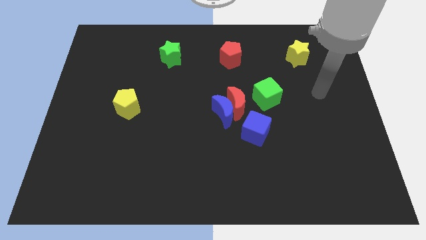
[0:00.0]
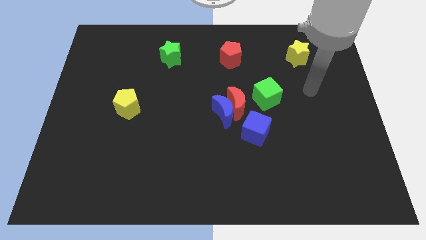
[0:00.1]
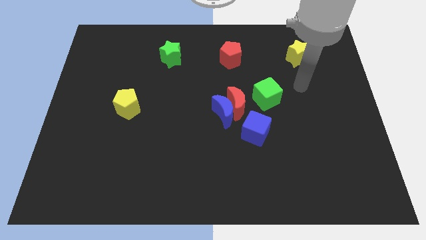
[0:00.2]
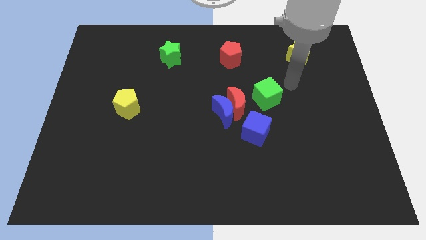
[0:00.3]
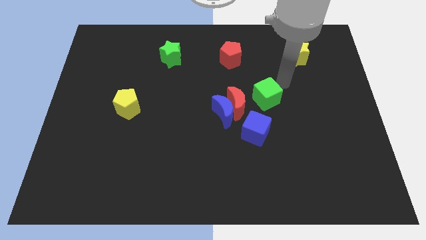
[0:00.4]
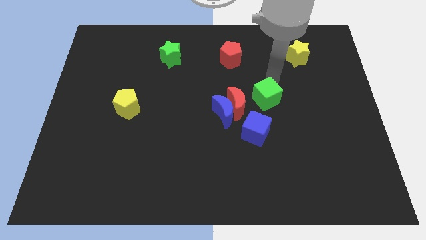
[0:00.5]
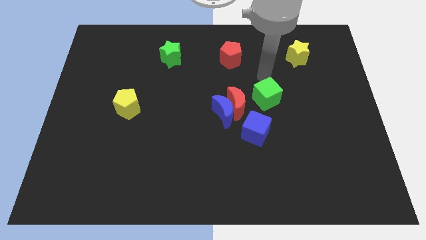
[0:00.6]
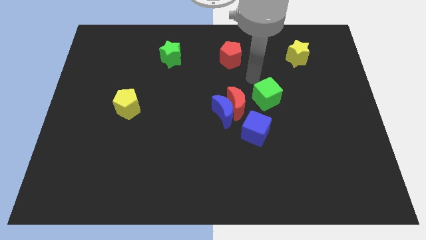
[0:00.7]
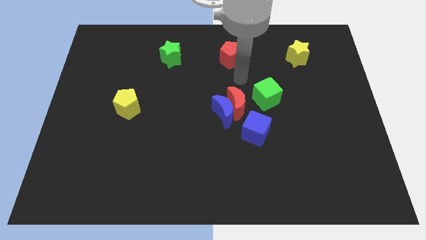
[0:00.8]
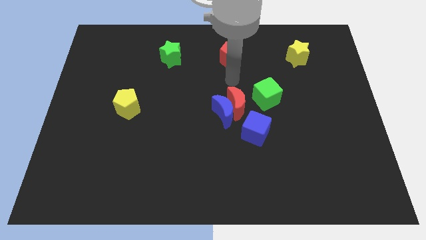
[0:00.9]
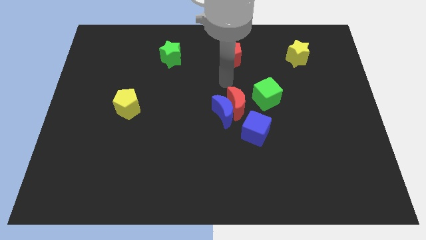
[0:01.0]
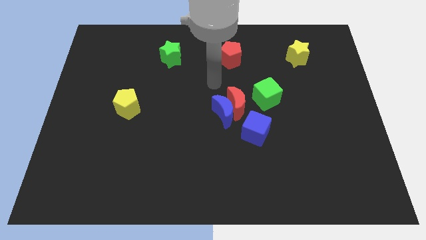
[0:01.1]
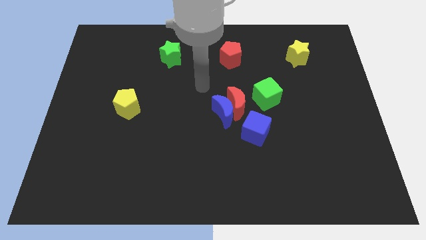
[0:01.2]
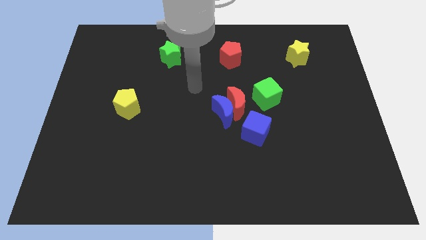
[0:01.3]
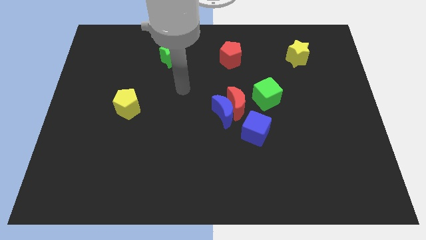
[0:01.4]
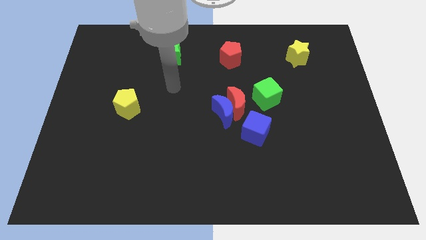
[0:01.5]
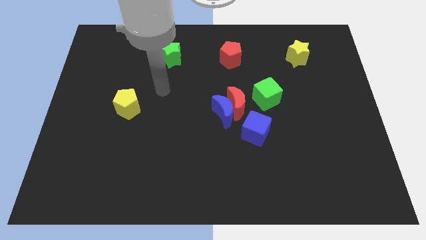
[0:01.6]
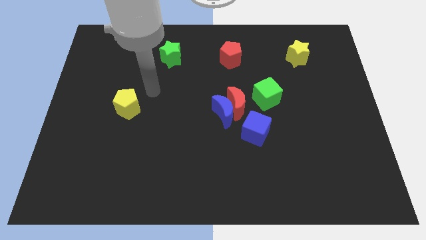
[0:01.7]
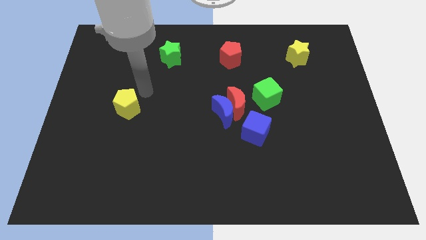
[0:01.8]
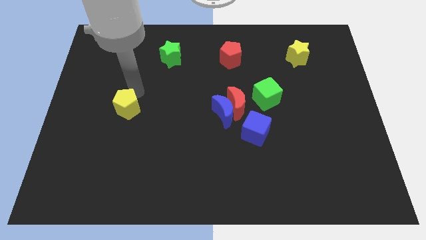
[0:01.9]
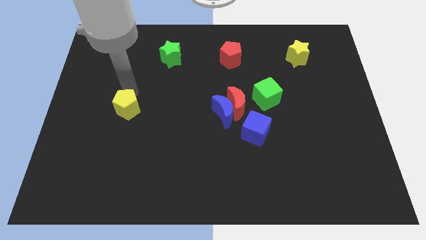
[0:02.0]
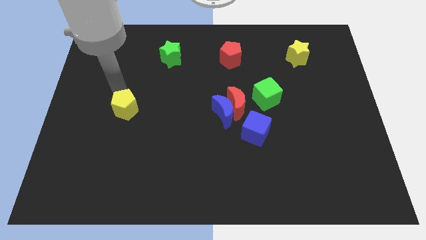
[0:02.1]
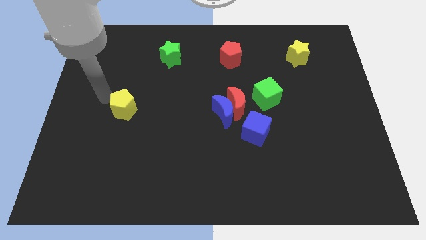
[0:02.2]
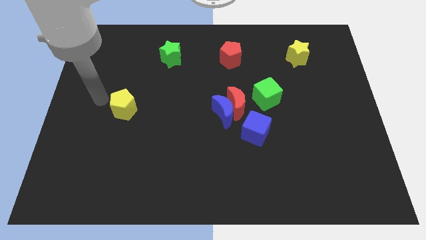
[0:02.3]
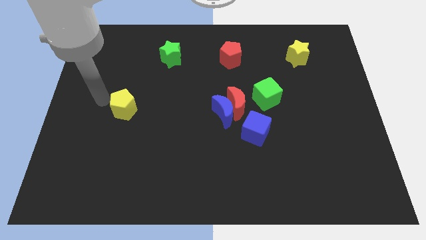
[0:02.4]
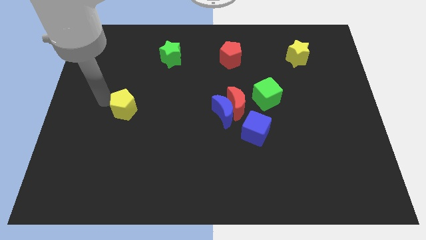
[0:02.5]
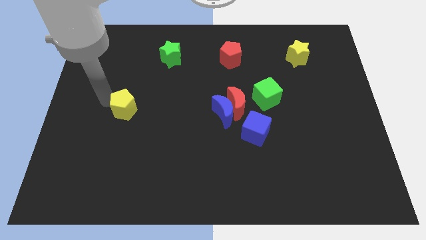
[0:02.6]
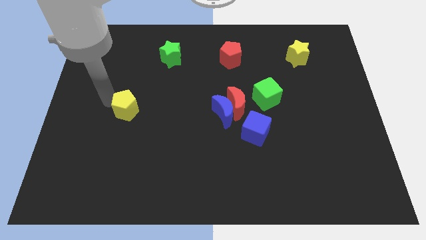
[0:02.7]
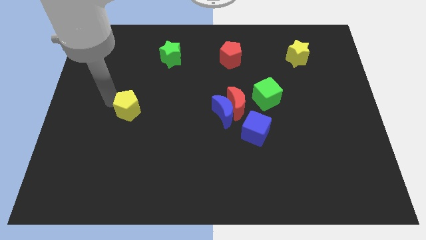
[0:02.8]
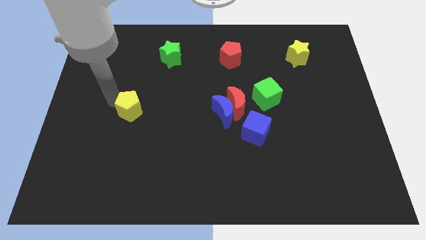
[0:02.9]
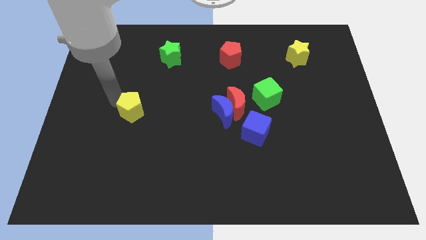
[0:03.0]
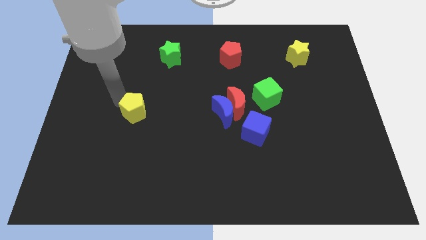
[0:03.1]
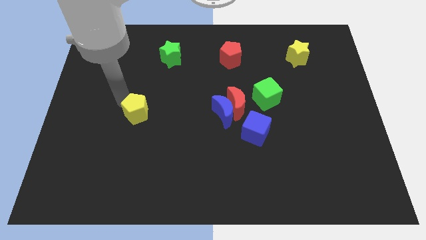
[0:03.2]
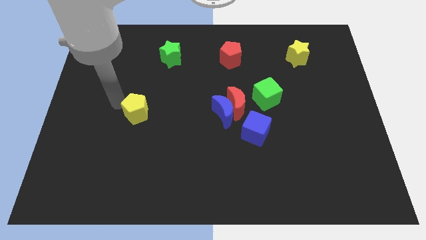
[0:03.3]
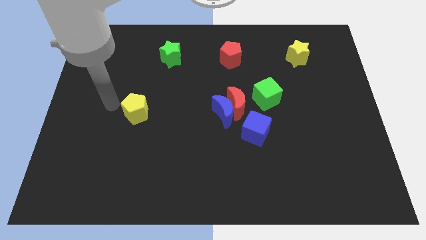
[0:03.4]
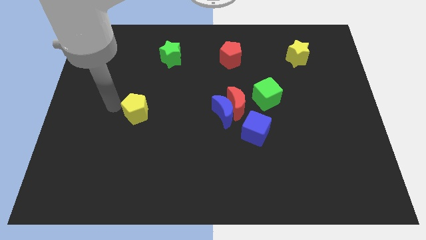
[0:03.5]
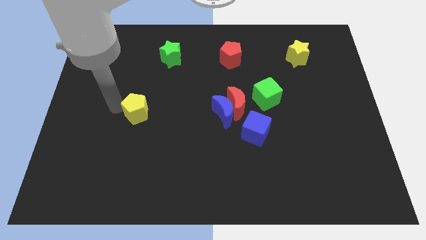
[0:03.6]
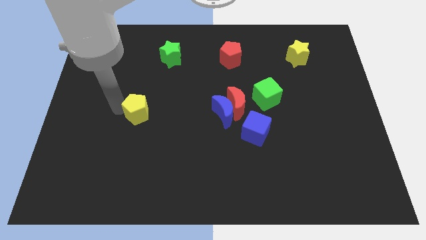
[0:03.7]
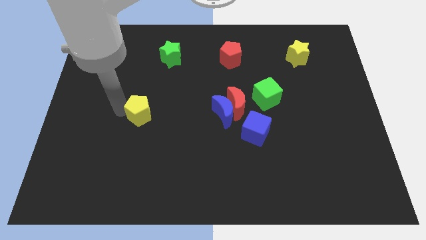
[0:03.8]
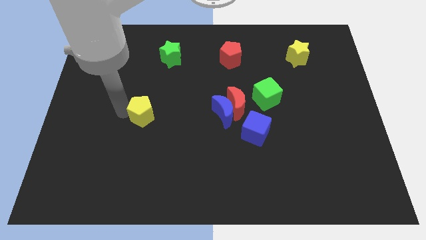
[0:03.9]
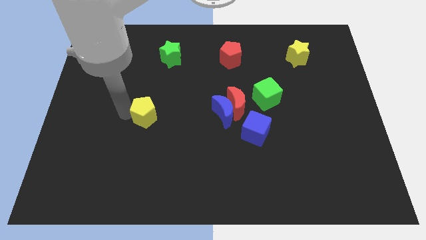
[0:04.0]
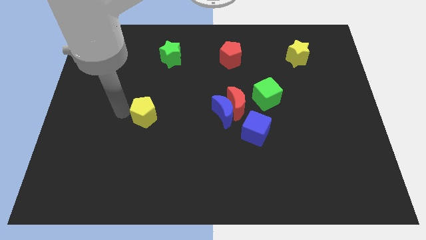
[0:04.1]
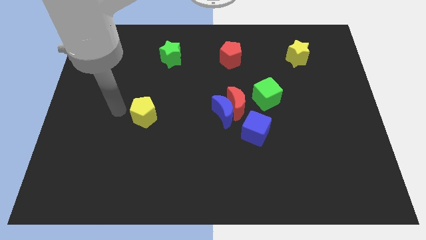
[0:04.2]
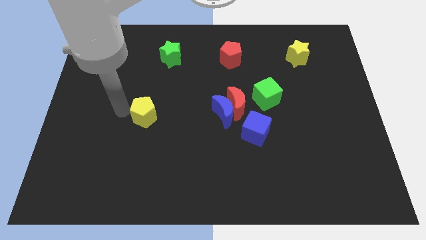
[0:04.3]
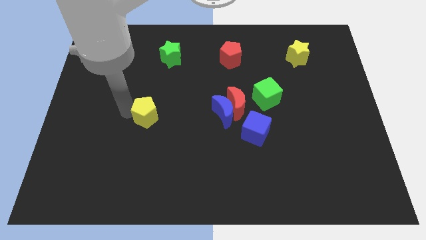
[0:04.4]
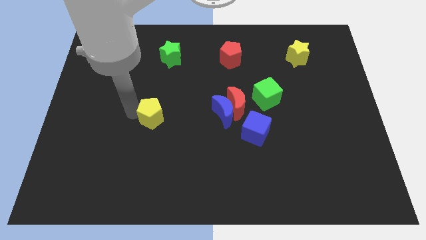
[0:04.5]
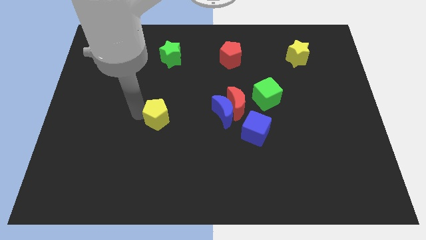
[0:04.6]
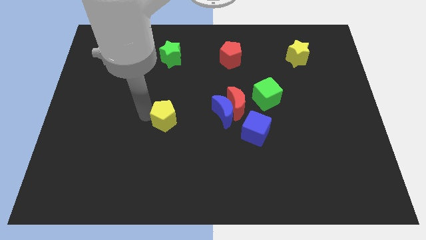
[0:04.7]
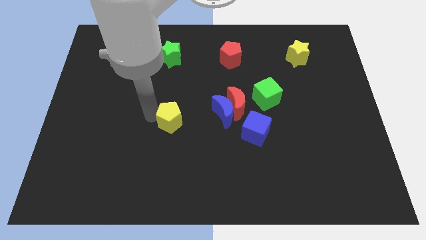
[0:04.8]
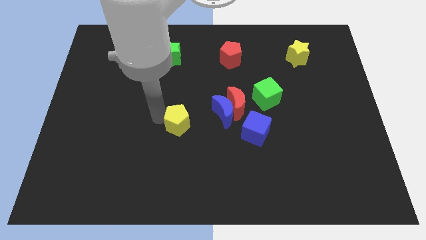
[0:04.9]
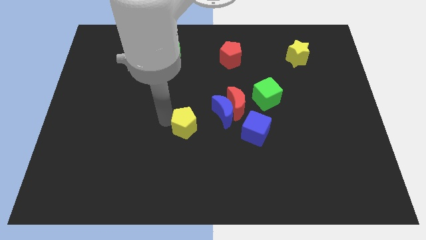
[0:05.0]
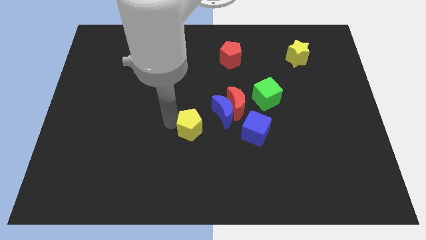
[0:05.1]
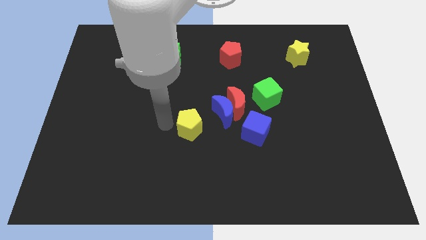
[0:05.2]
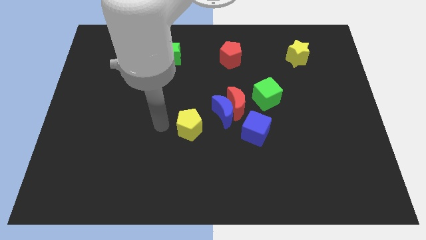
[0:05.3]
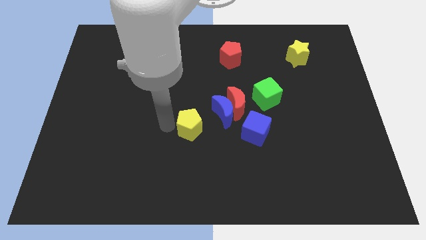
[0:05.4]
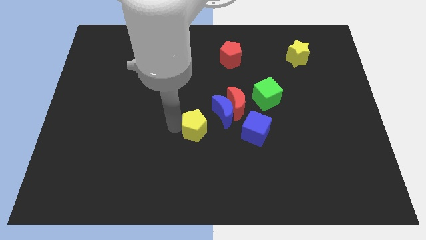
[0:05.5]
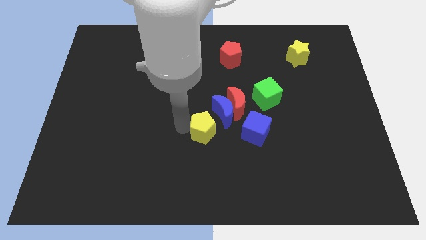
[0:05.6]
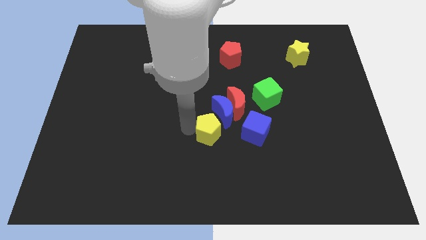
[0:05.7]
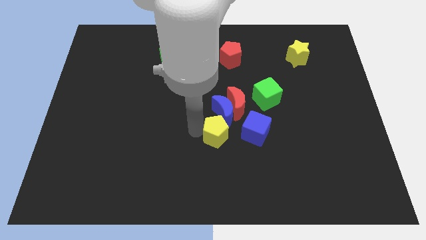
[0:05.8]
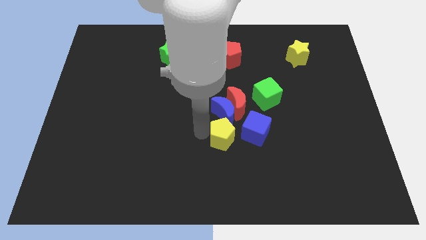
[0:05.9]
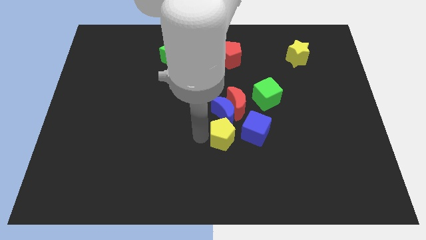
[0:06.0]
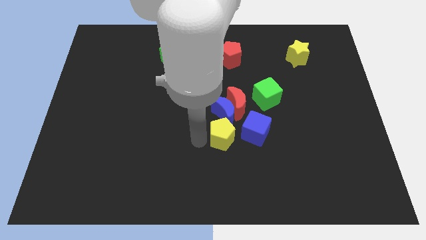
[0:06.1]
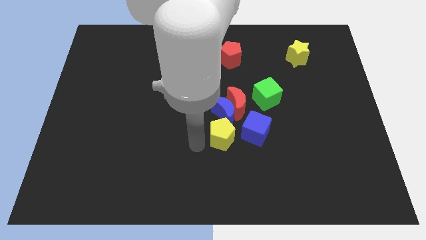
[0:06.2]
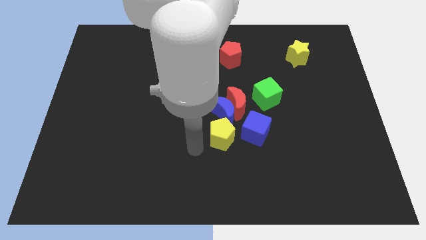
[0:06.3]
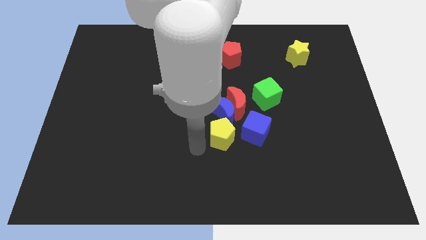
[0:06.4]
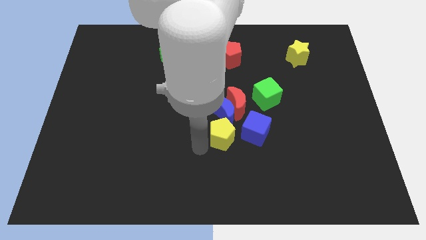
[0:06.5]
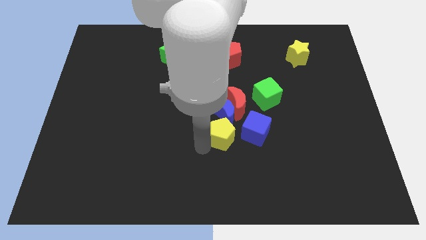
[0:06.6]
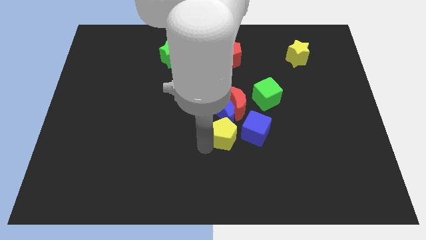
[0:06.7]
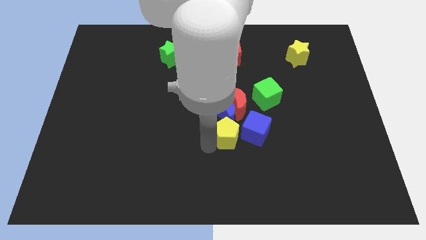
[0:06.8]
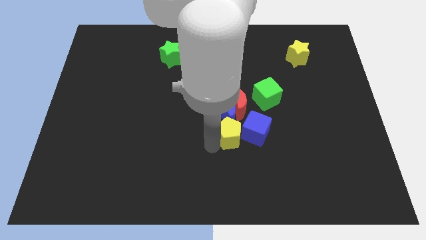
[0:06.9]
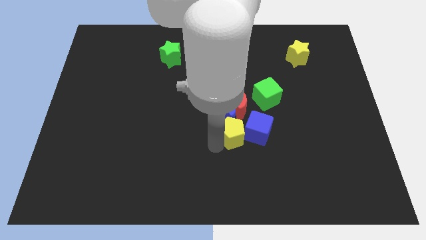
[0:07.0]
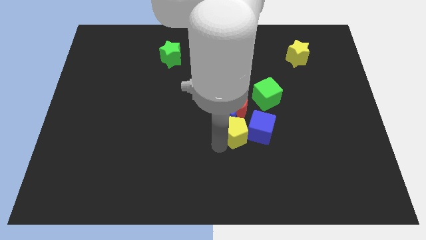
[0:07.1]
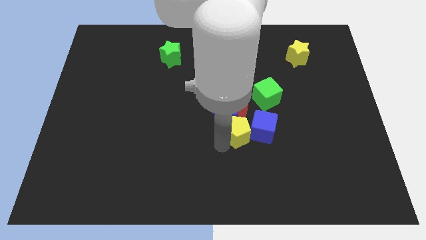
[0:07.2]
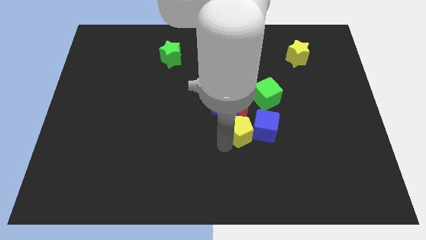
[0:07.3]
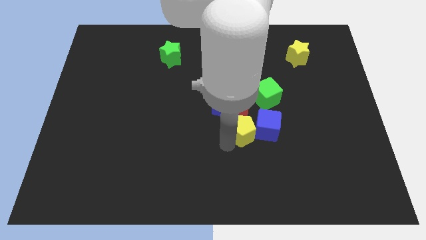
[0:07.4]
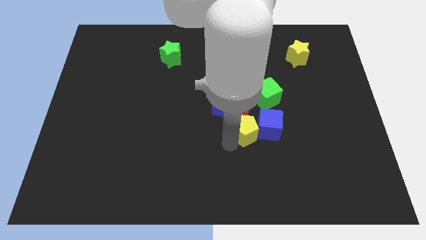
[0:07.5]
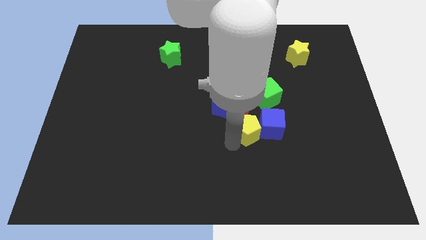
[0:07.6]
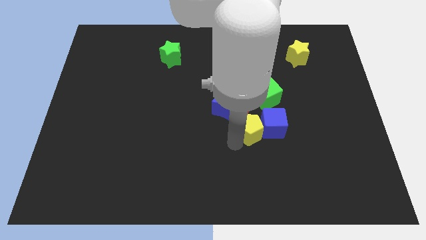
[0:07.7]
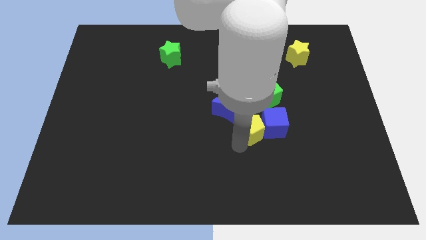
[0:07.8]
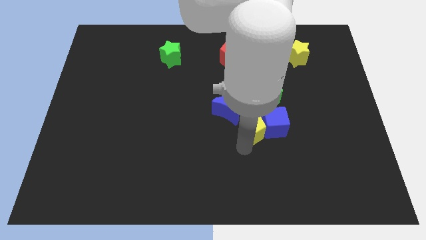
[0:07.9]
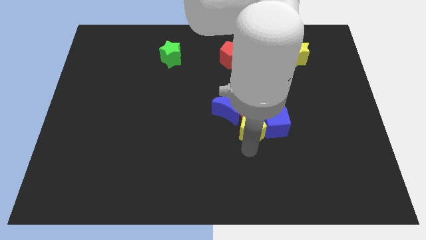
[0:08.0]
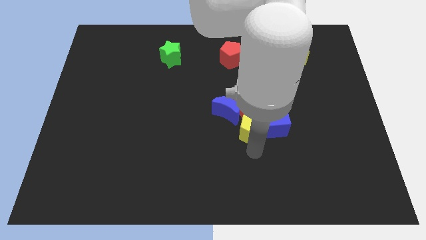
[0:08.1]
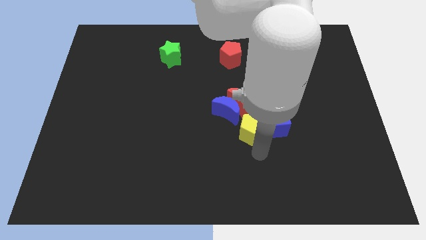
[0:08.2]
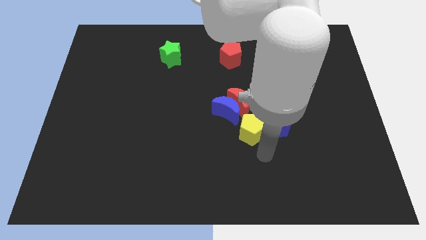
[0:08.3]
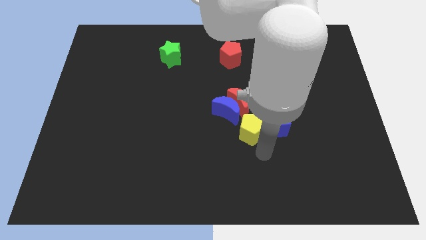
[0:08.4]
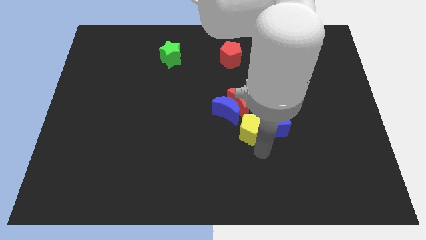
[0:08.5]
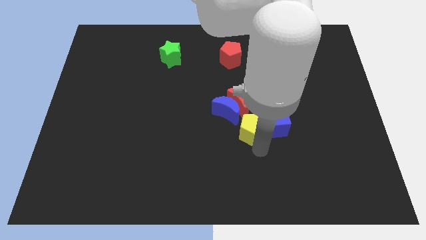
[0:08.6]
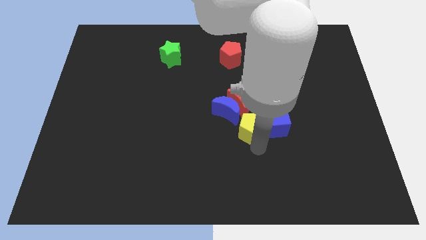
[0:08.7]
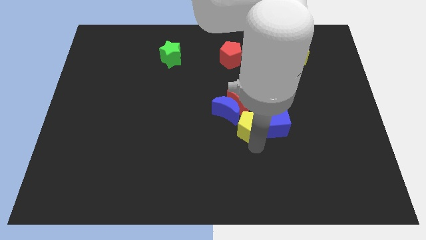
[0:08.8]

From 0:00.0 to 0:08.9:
put the yellow pentagon to the right side of the blue moon
